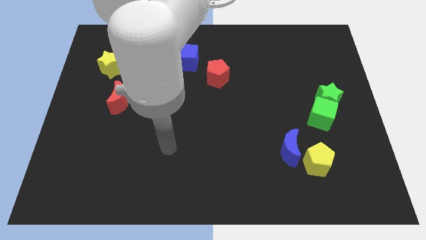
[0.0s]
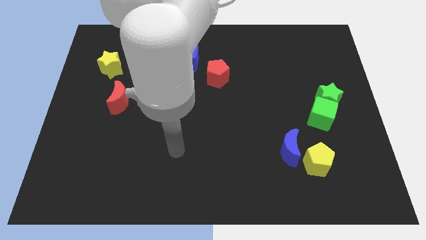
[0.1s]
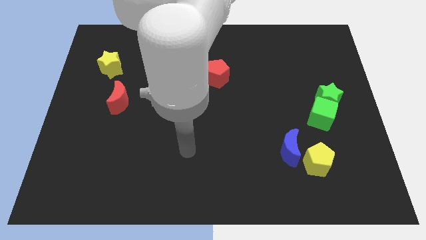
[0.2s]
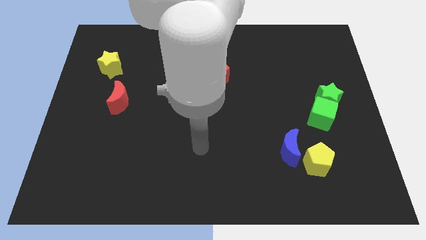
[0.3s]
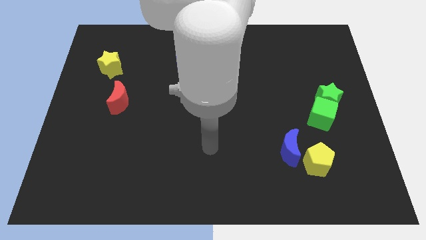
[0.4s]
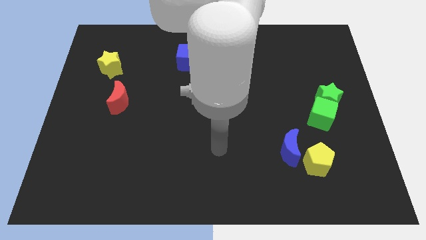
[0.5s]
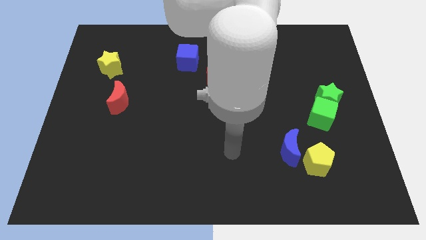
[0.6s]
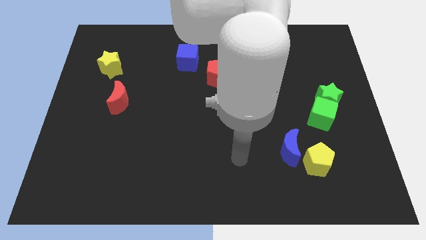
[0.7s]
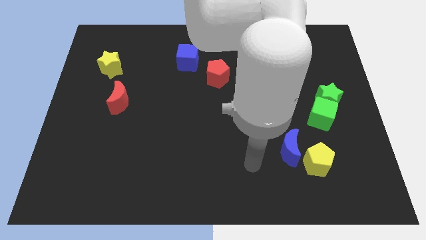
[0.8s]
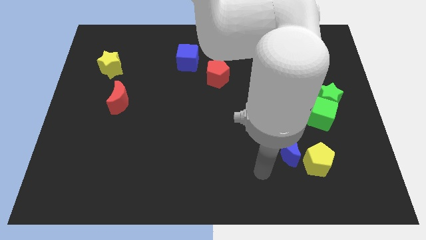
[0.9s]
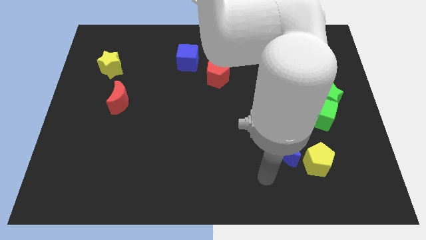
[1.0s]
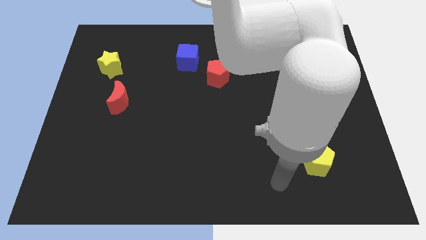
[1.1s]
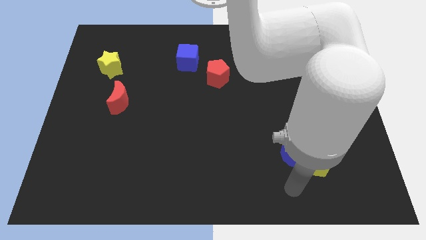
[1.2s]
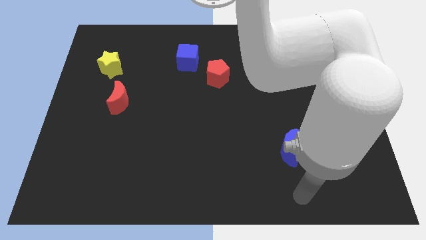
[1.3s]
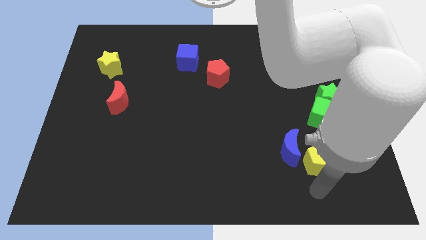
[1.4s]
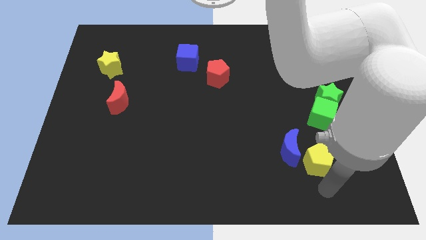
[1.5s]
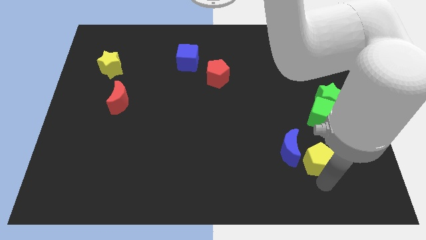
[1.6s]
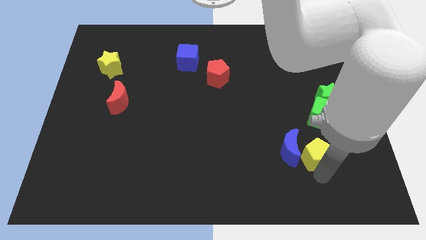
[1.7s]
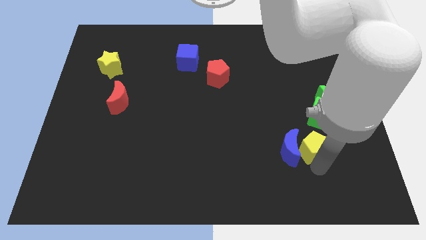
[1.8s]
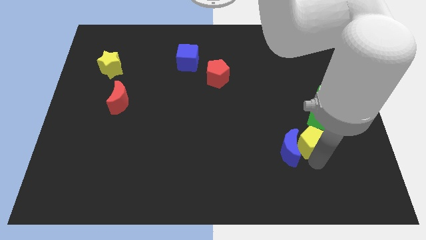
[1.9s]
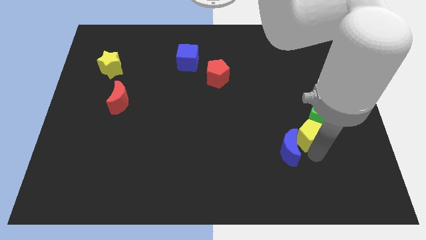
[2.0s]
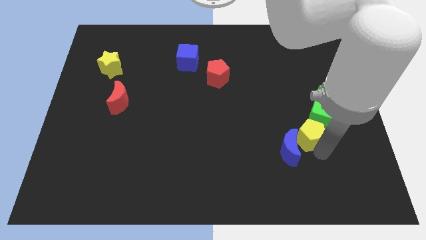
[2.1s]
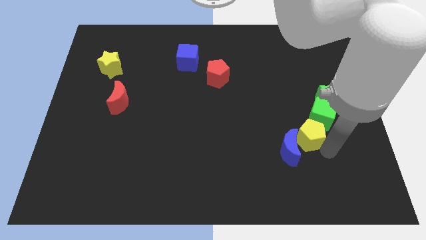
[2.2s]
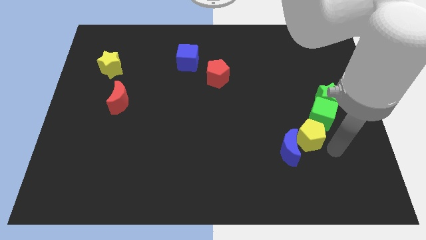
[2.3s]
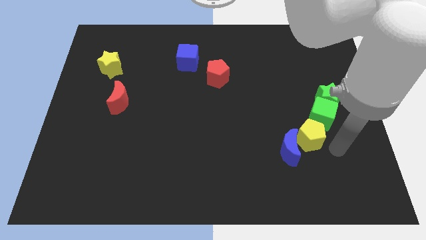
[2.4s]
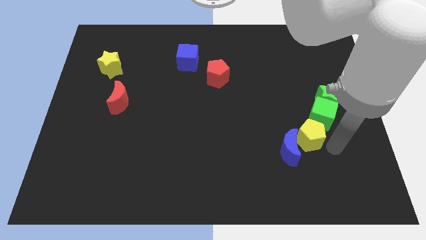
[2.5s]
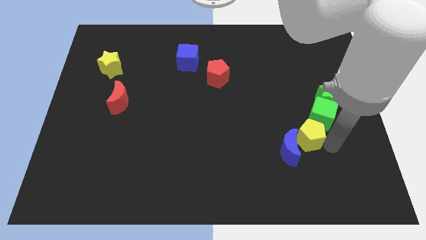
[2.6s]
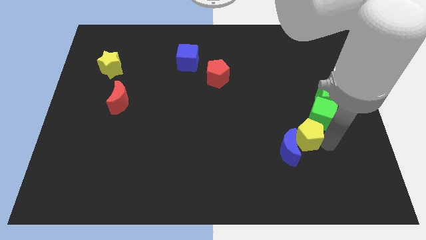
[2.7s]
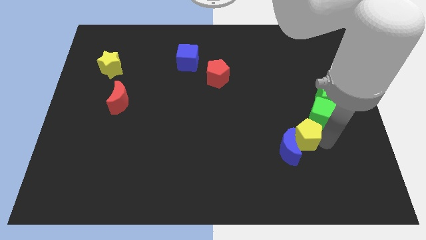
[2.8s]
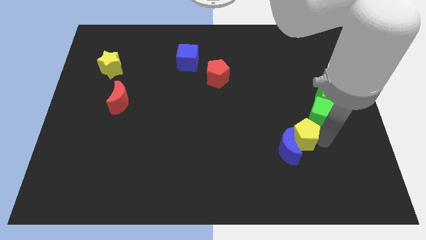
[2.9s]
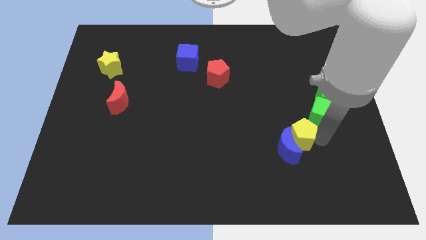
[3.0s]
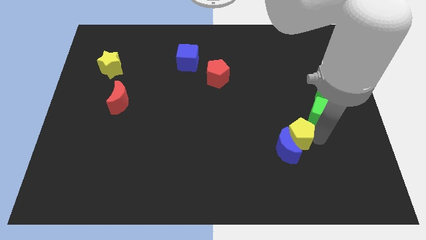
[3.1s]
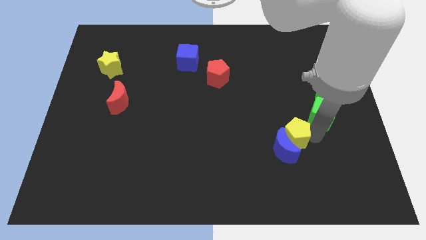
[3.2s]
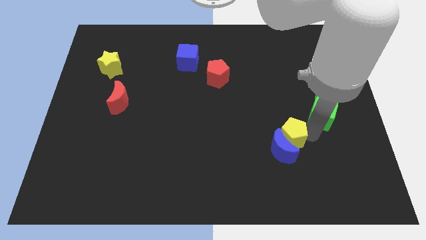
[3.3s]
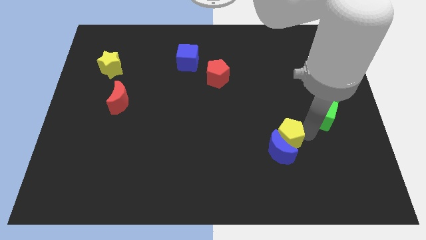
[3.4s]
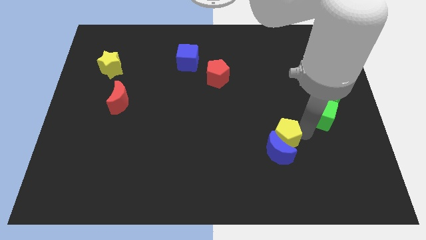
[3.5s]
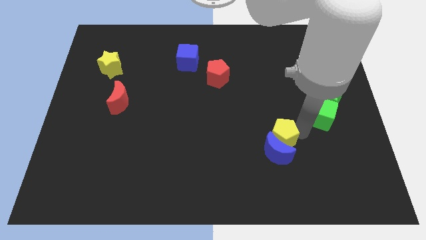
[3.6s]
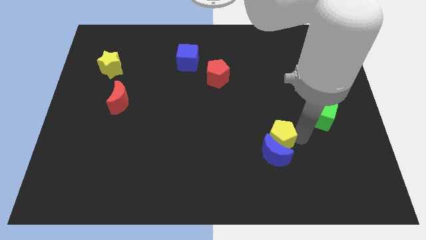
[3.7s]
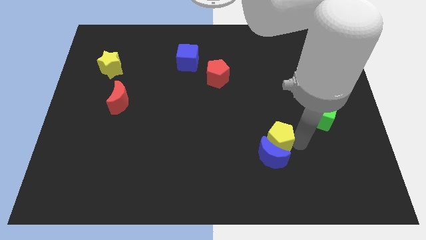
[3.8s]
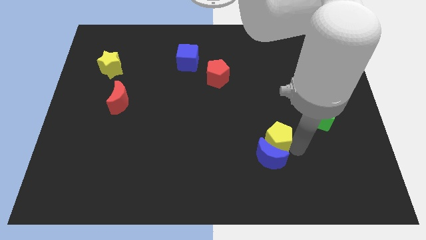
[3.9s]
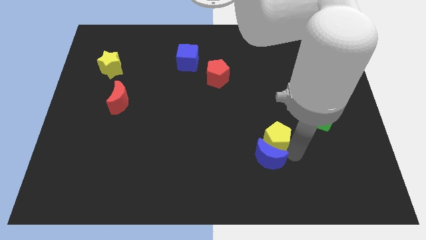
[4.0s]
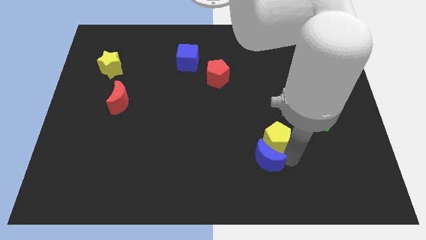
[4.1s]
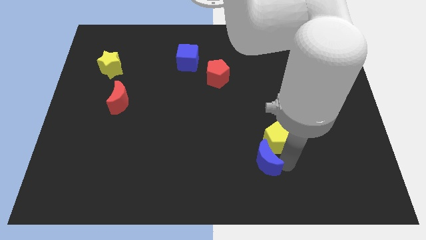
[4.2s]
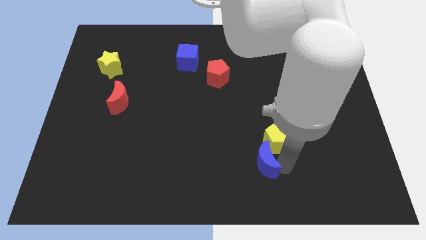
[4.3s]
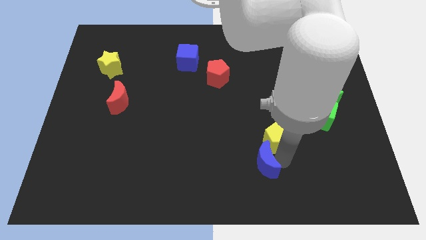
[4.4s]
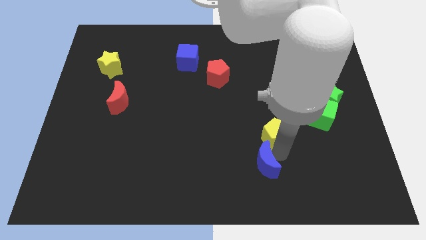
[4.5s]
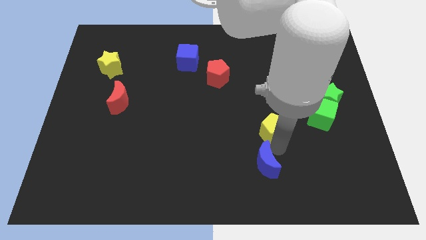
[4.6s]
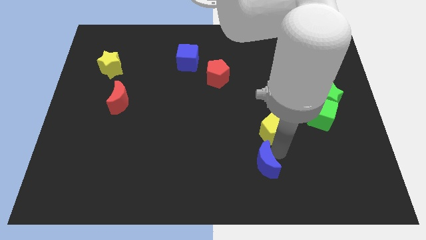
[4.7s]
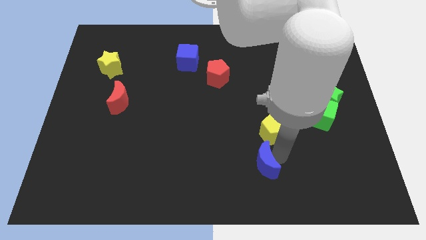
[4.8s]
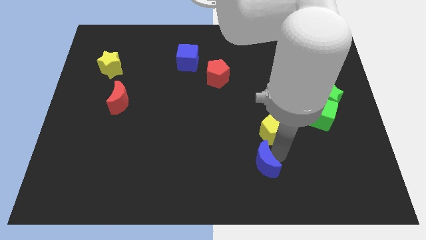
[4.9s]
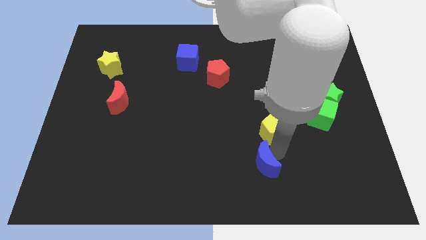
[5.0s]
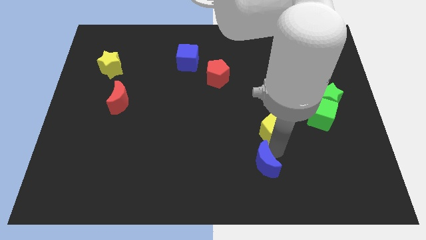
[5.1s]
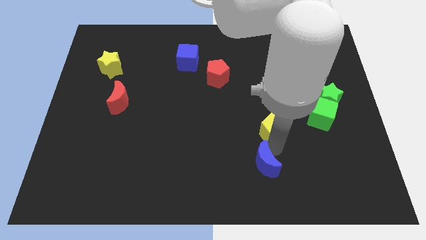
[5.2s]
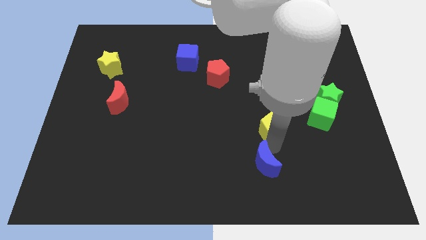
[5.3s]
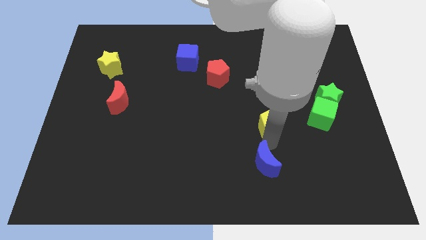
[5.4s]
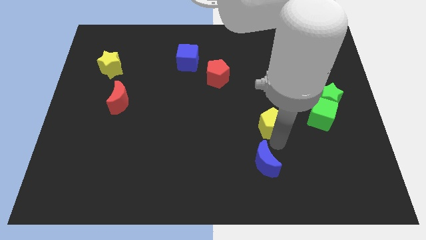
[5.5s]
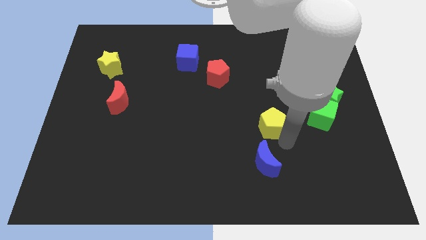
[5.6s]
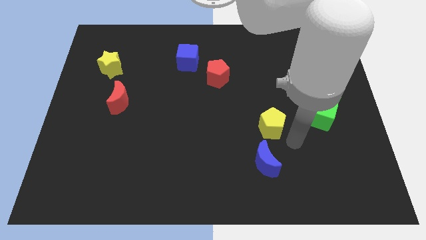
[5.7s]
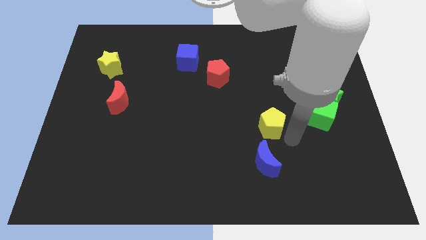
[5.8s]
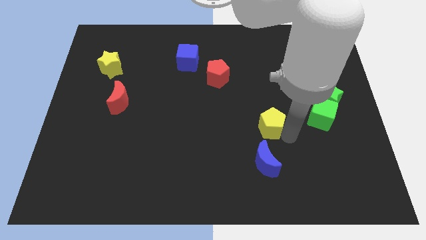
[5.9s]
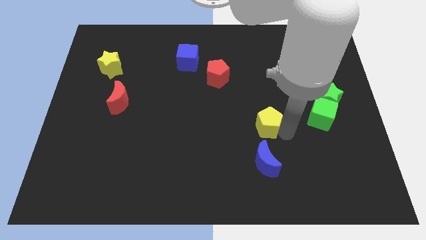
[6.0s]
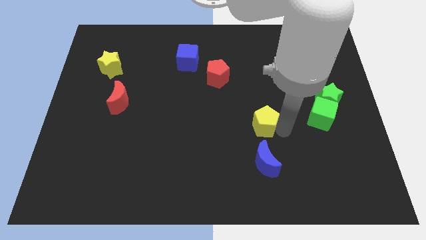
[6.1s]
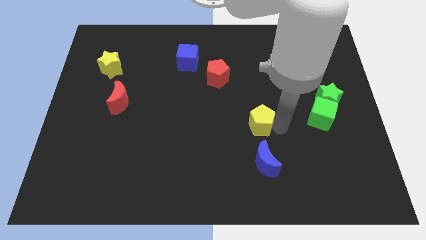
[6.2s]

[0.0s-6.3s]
move the yellow pentagon to the center
